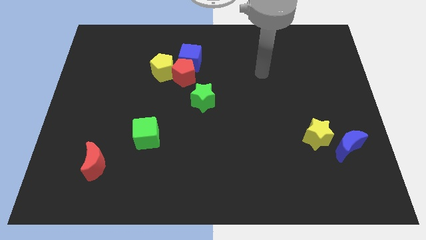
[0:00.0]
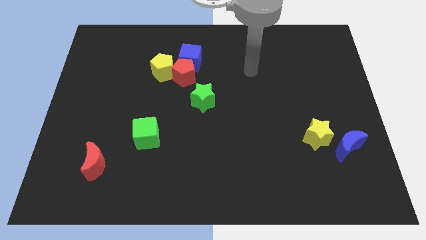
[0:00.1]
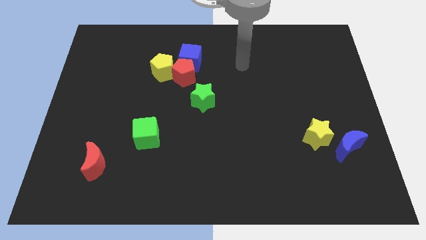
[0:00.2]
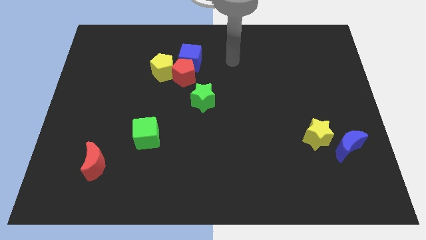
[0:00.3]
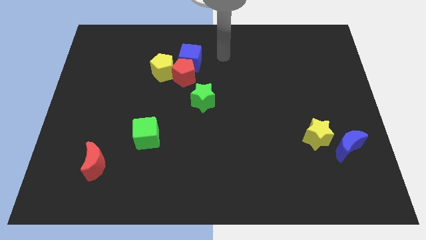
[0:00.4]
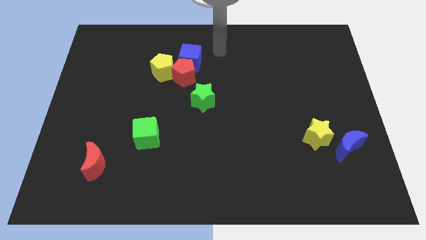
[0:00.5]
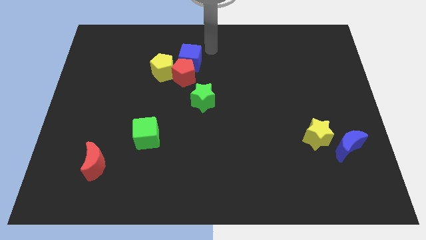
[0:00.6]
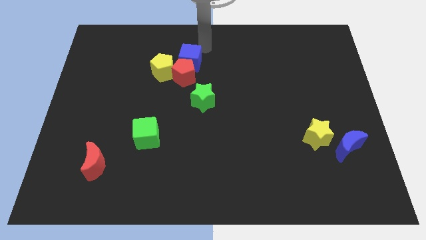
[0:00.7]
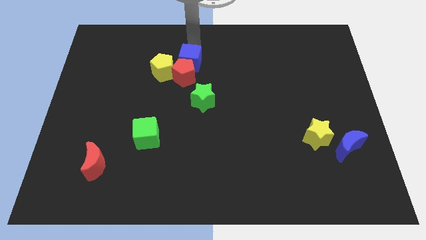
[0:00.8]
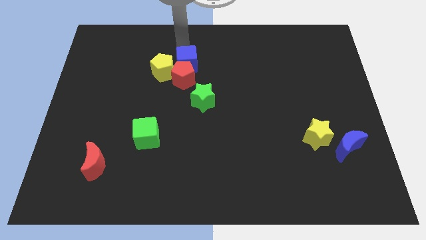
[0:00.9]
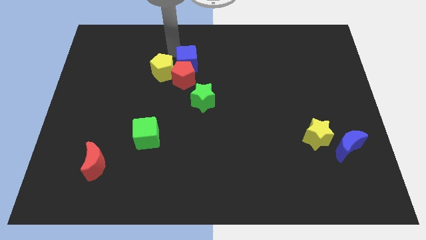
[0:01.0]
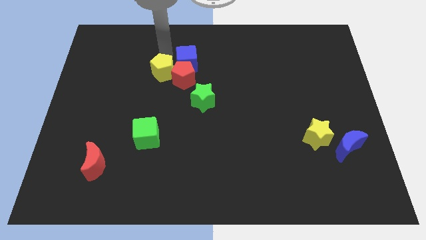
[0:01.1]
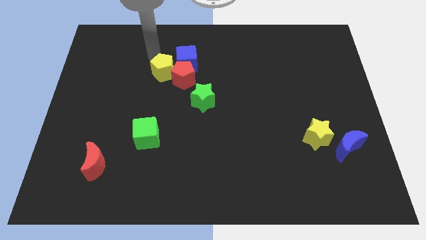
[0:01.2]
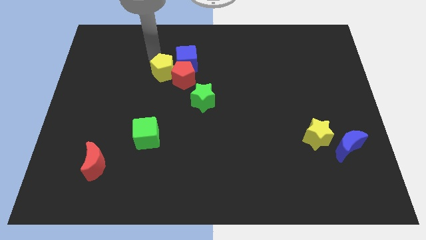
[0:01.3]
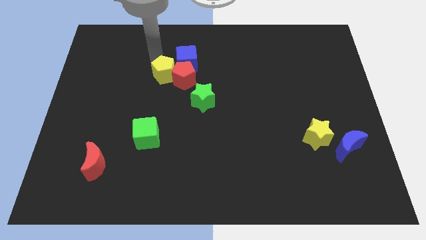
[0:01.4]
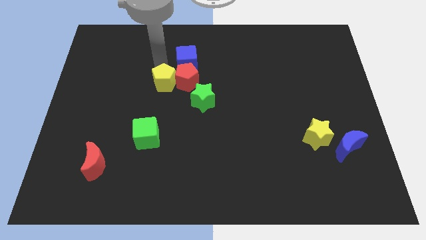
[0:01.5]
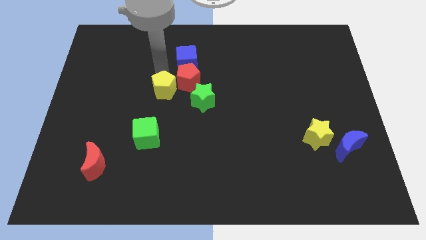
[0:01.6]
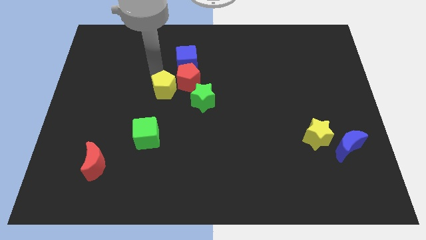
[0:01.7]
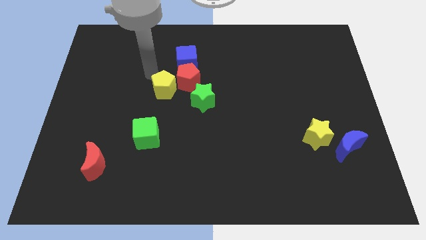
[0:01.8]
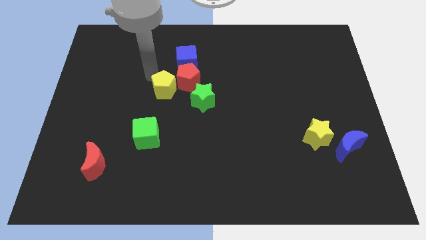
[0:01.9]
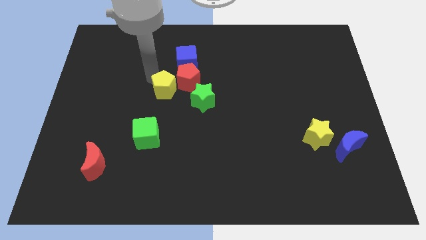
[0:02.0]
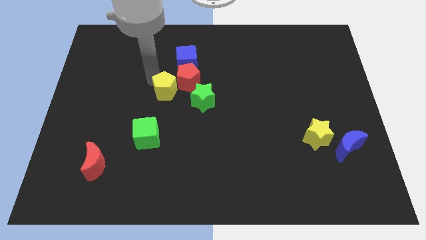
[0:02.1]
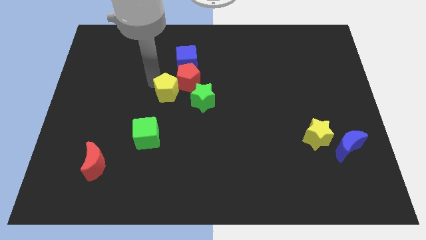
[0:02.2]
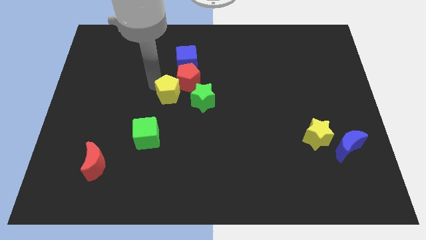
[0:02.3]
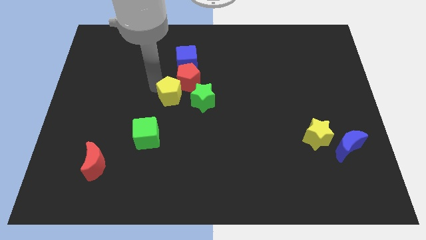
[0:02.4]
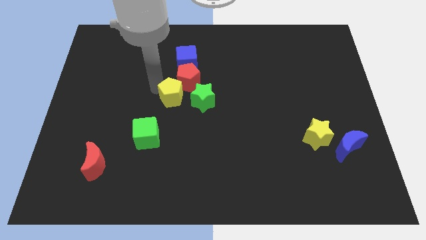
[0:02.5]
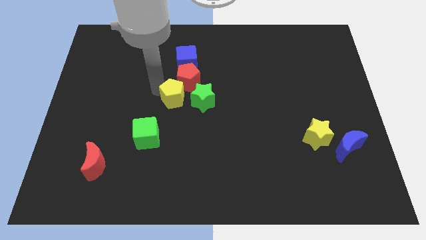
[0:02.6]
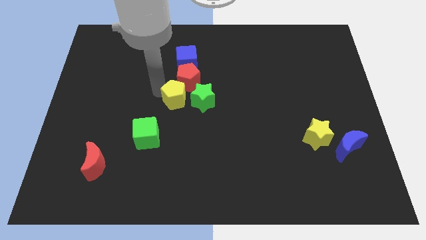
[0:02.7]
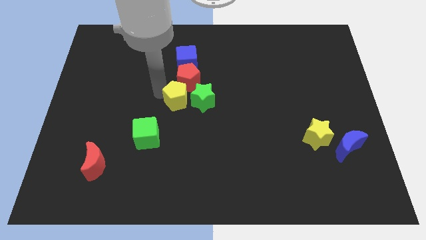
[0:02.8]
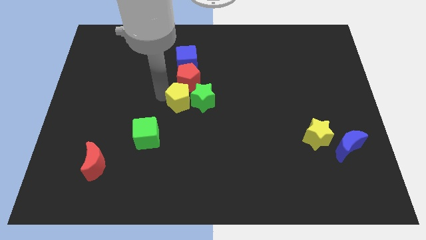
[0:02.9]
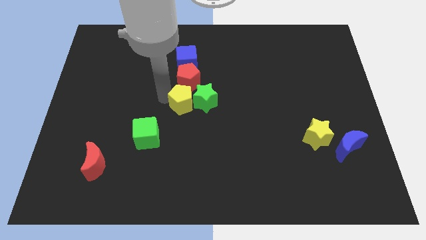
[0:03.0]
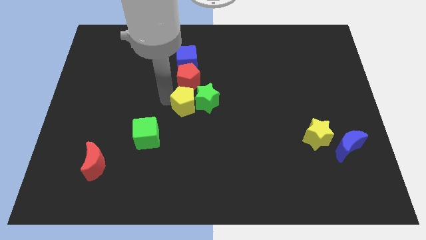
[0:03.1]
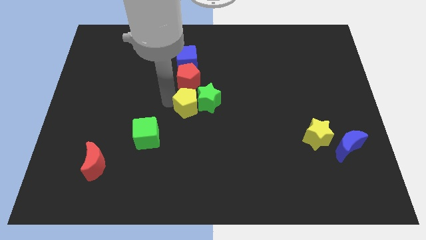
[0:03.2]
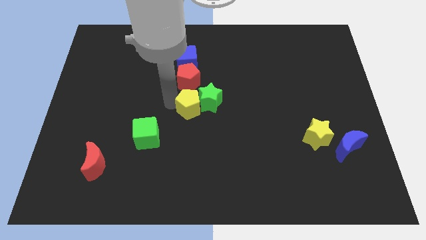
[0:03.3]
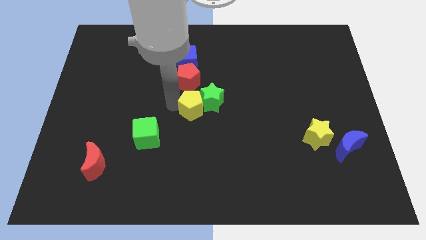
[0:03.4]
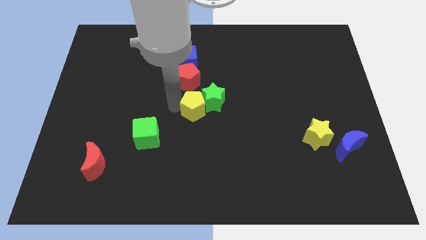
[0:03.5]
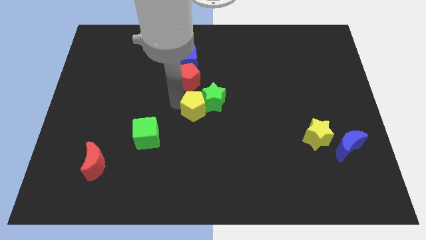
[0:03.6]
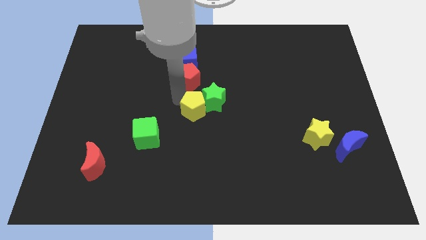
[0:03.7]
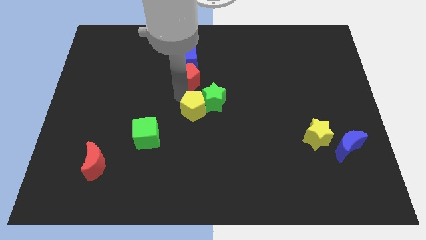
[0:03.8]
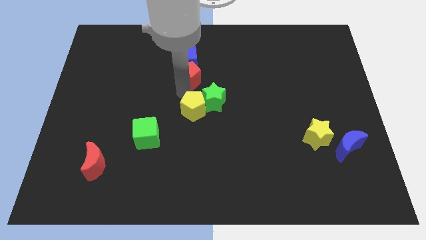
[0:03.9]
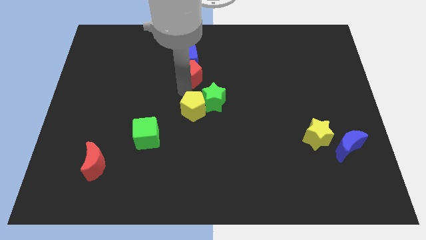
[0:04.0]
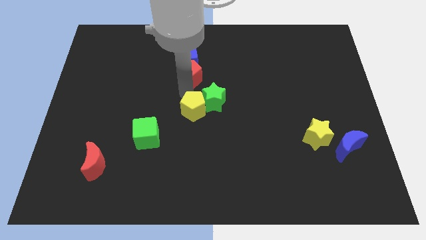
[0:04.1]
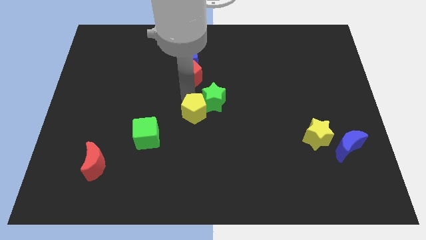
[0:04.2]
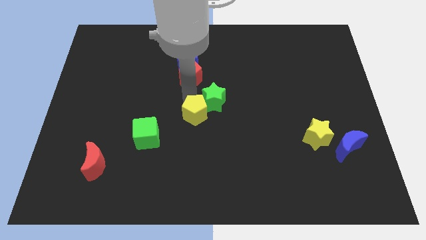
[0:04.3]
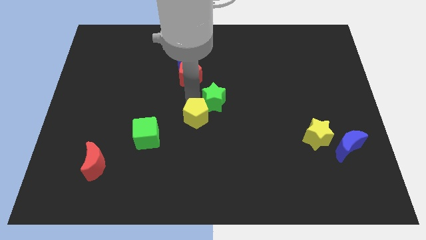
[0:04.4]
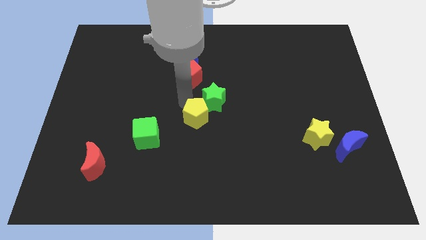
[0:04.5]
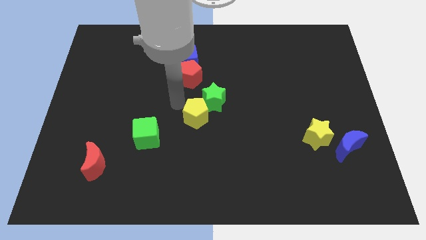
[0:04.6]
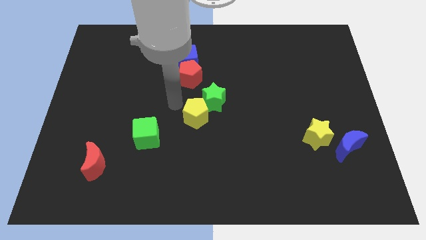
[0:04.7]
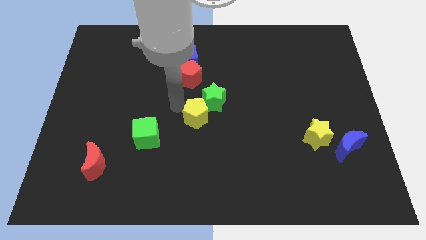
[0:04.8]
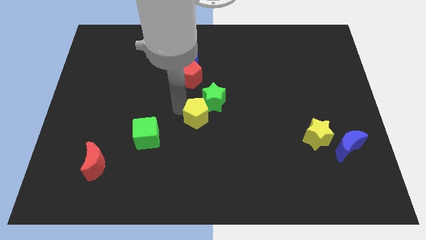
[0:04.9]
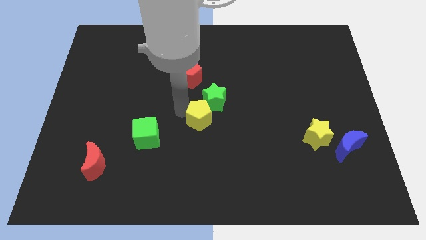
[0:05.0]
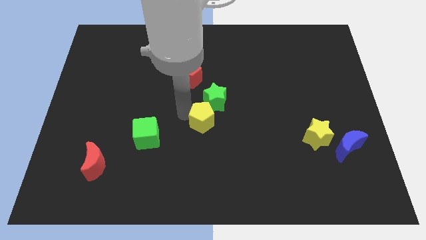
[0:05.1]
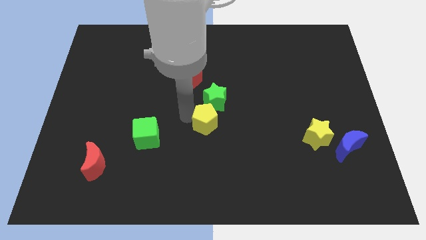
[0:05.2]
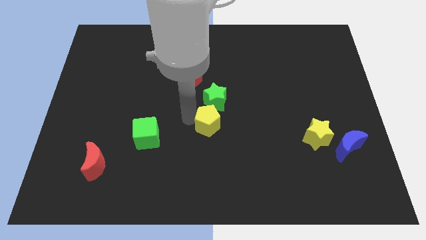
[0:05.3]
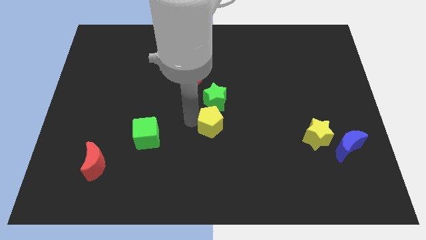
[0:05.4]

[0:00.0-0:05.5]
move the yellow pentagon down and then to the right

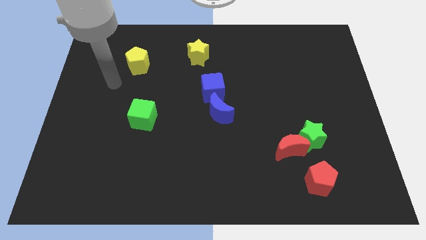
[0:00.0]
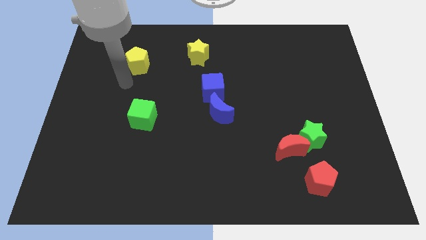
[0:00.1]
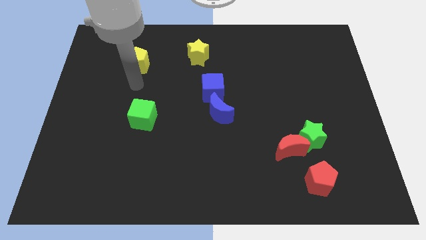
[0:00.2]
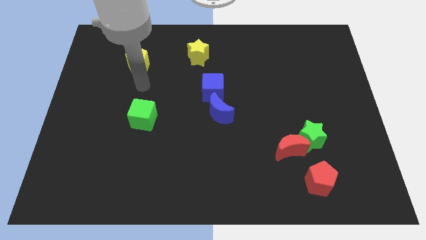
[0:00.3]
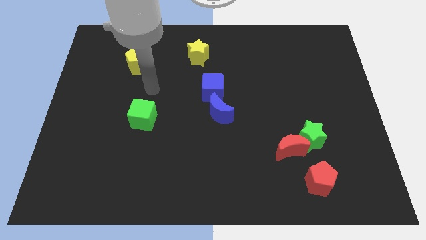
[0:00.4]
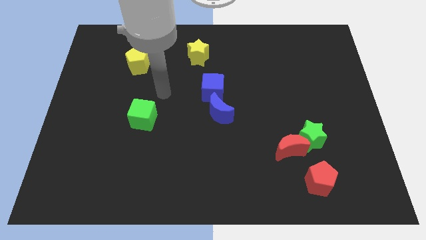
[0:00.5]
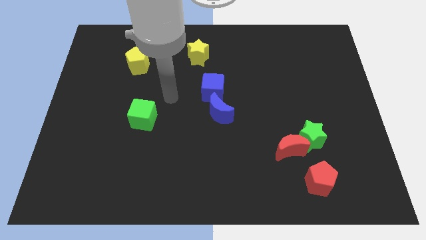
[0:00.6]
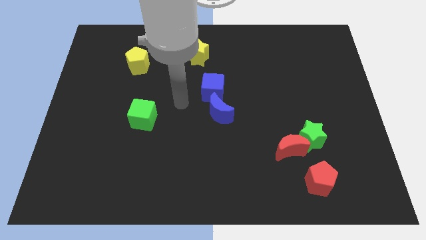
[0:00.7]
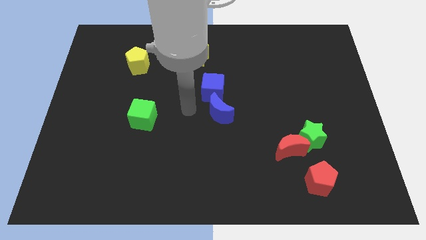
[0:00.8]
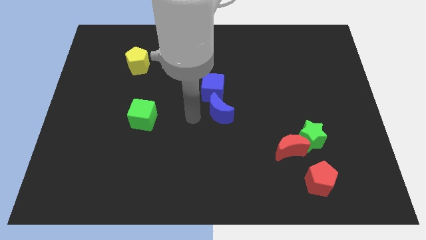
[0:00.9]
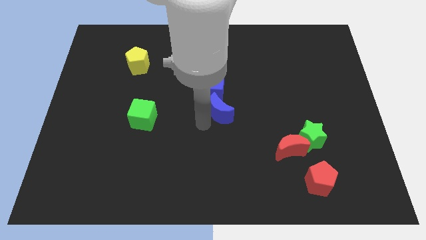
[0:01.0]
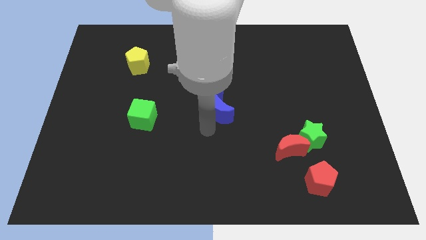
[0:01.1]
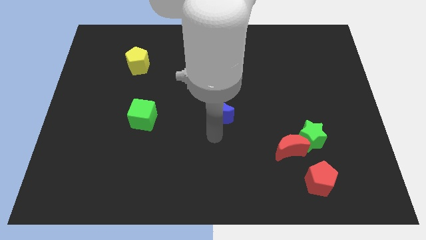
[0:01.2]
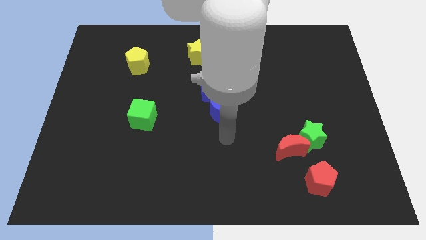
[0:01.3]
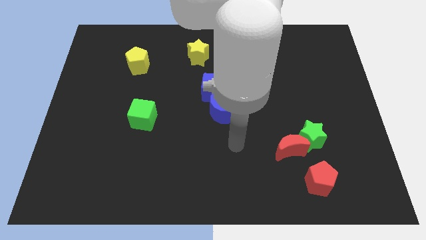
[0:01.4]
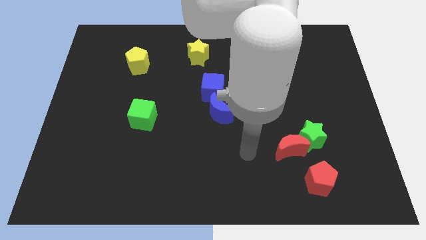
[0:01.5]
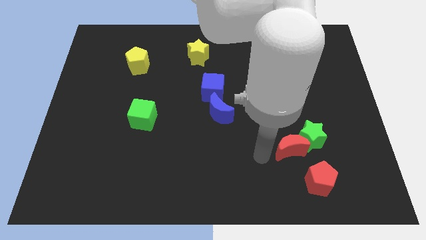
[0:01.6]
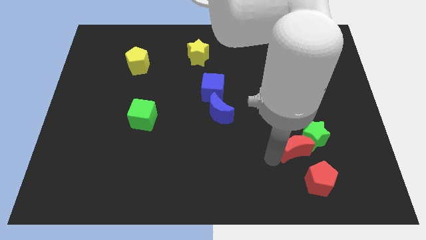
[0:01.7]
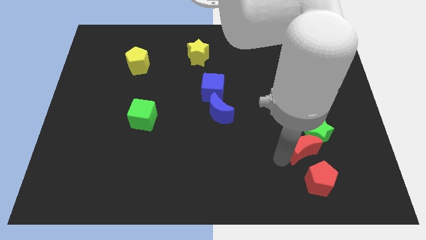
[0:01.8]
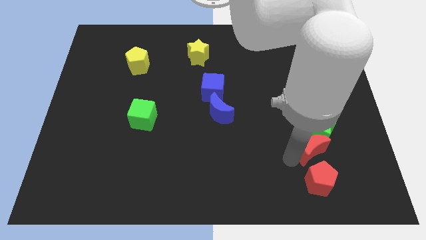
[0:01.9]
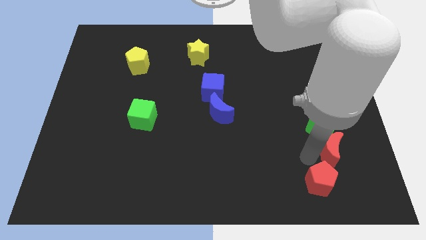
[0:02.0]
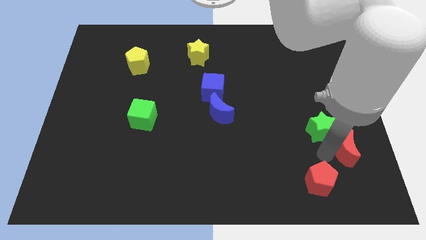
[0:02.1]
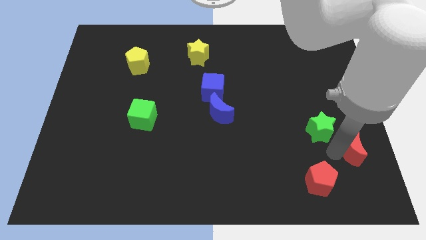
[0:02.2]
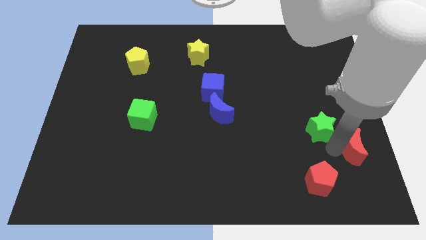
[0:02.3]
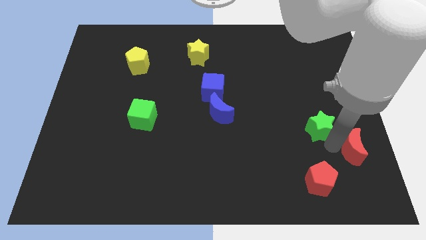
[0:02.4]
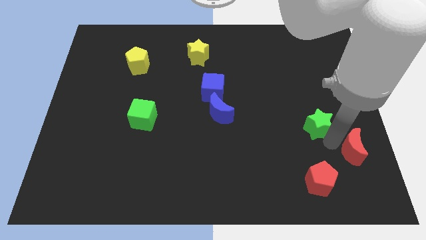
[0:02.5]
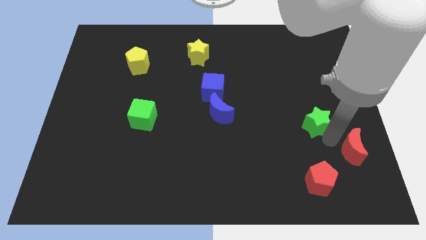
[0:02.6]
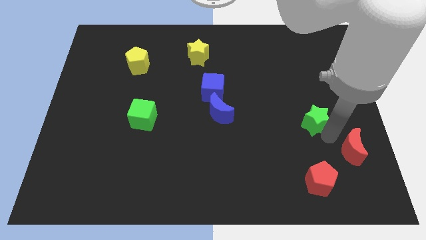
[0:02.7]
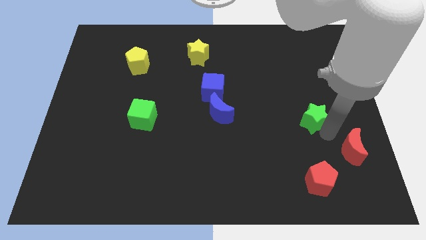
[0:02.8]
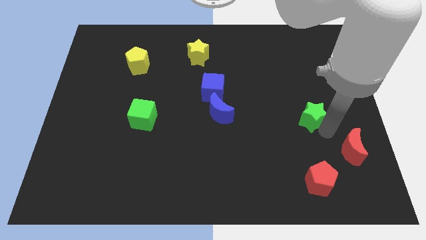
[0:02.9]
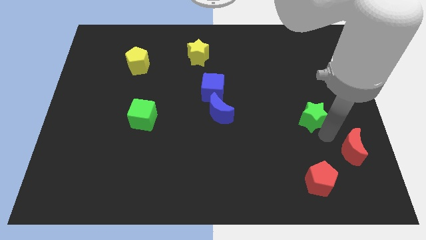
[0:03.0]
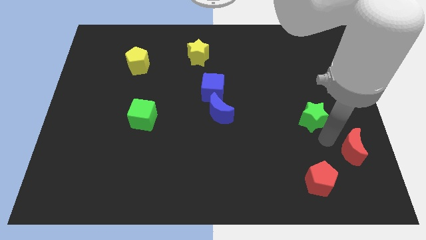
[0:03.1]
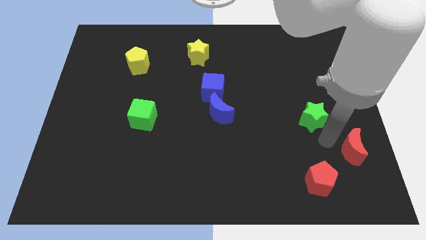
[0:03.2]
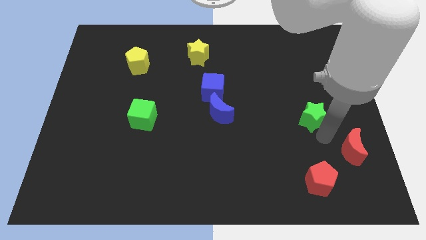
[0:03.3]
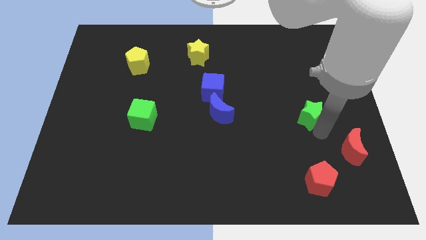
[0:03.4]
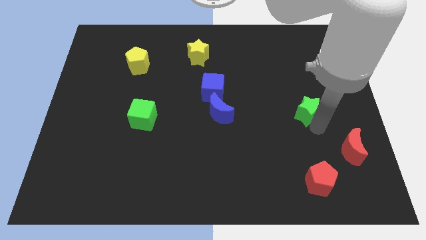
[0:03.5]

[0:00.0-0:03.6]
move the green star a little upwards
